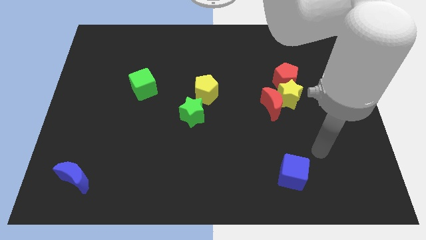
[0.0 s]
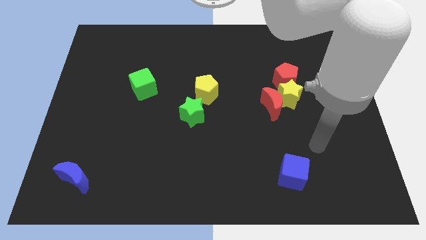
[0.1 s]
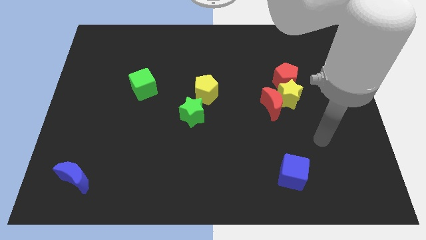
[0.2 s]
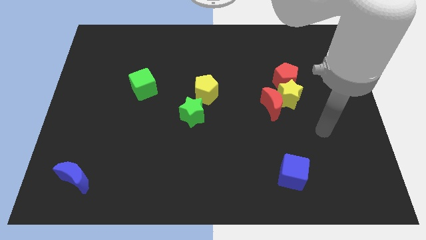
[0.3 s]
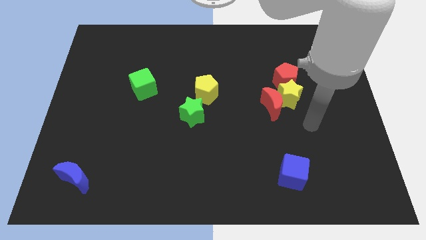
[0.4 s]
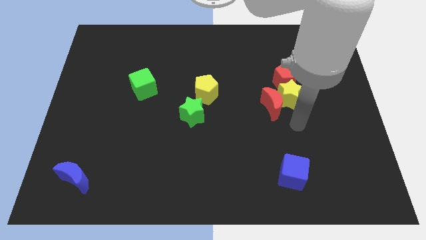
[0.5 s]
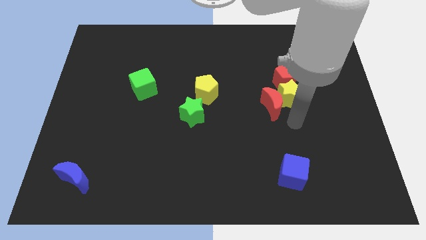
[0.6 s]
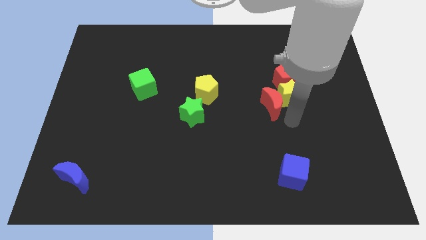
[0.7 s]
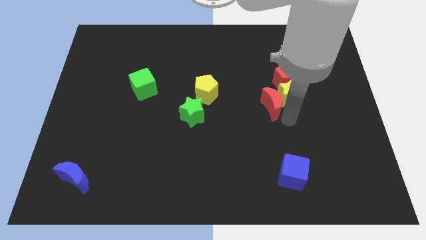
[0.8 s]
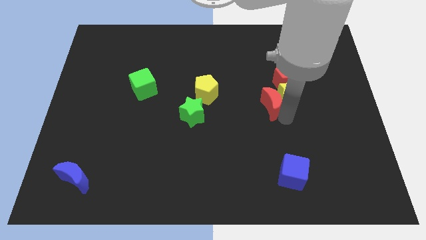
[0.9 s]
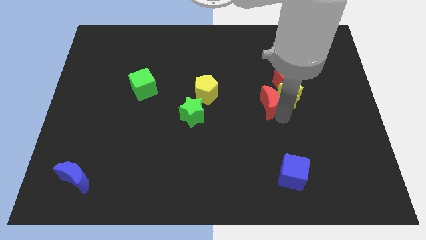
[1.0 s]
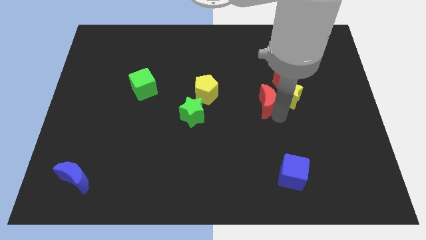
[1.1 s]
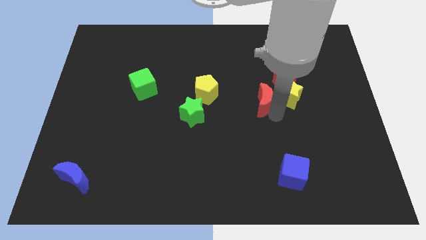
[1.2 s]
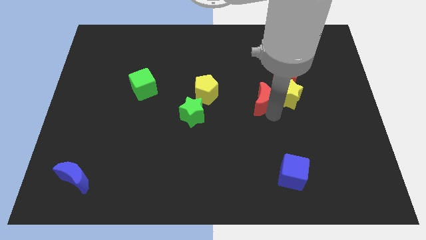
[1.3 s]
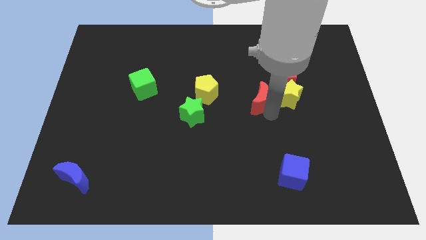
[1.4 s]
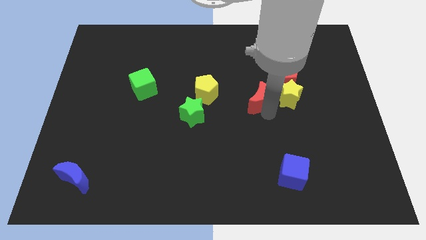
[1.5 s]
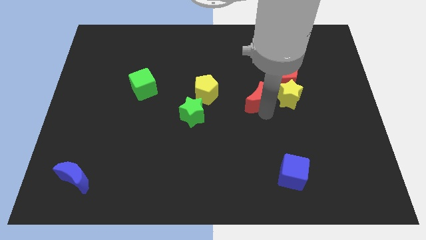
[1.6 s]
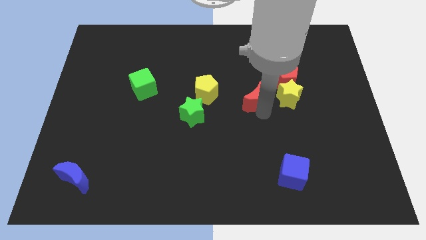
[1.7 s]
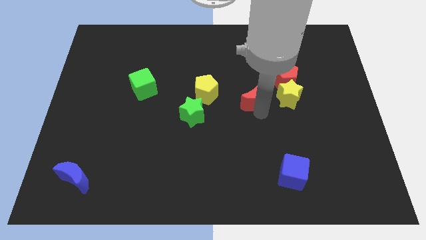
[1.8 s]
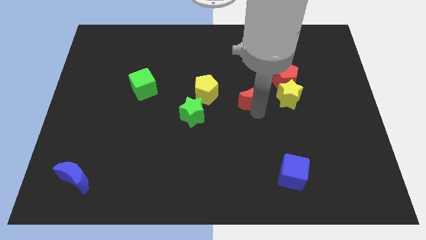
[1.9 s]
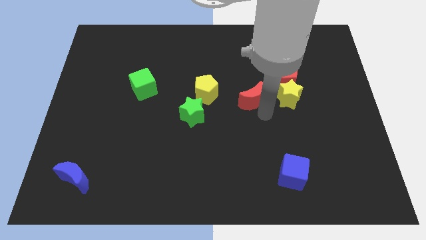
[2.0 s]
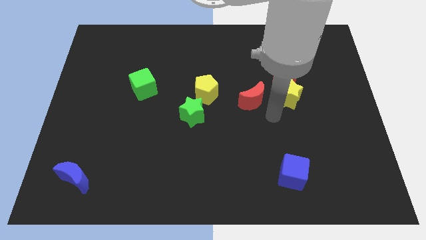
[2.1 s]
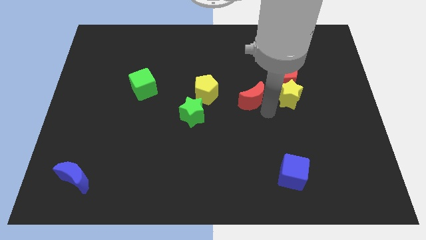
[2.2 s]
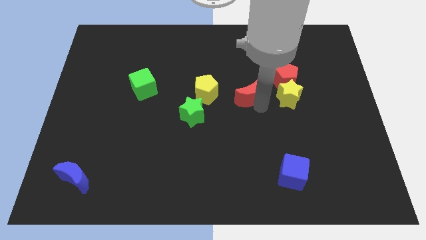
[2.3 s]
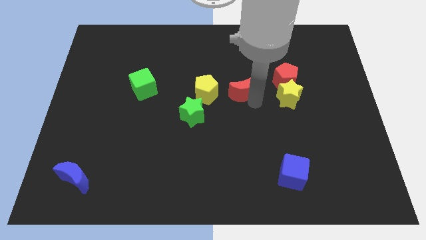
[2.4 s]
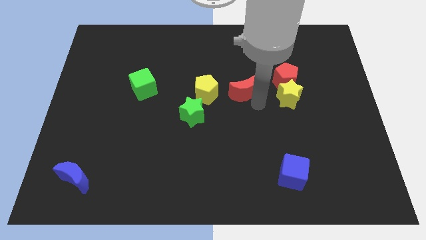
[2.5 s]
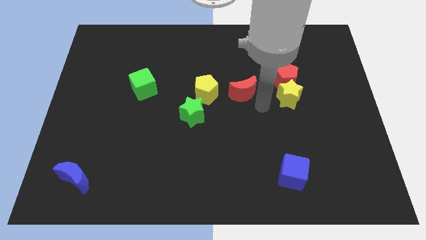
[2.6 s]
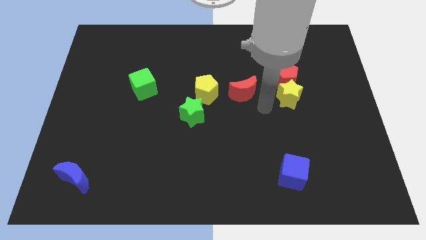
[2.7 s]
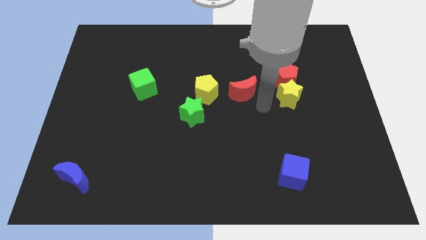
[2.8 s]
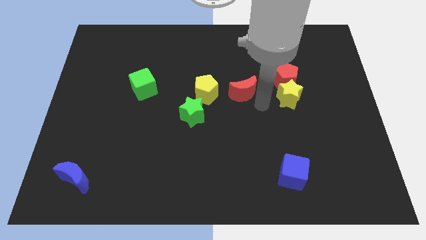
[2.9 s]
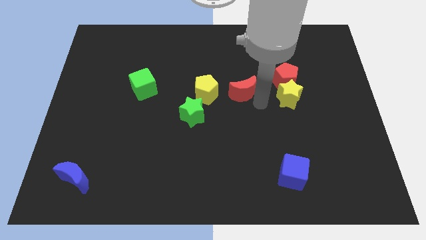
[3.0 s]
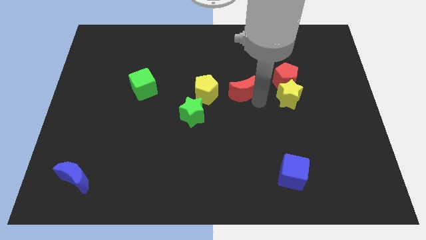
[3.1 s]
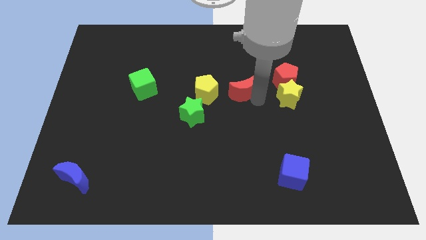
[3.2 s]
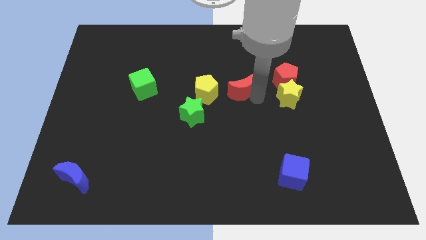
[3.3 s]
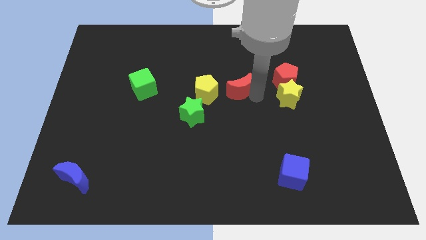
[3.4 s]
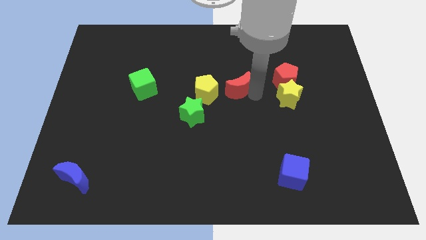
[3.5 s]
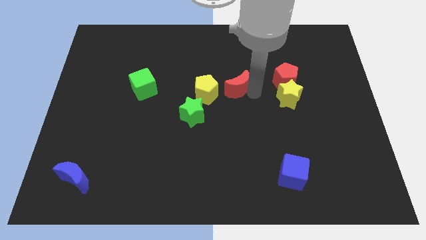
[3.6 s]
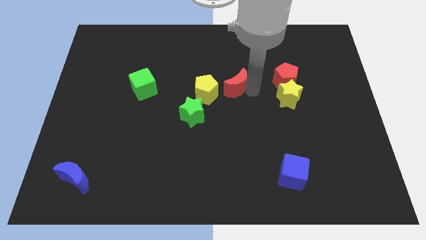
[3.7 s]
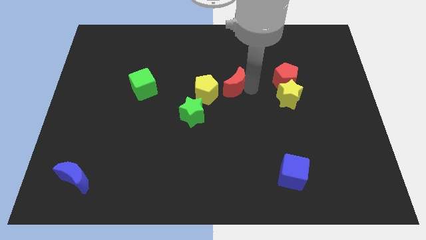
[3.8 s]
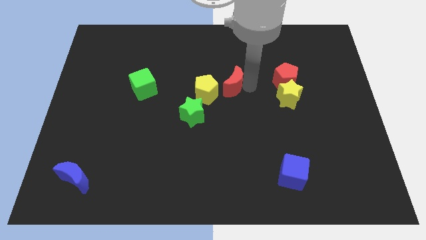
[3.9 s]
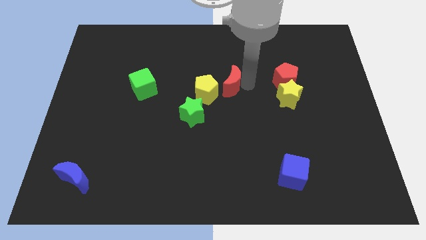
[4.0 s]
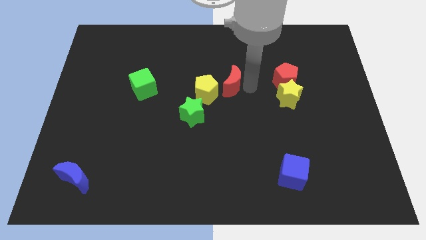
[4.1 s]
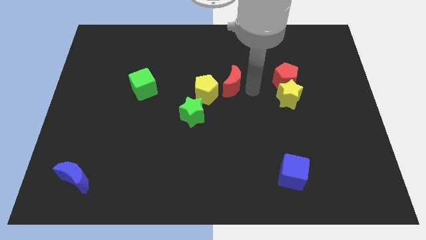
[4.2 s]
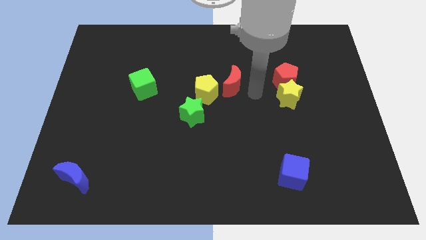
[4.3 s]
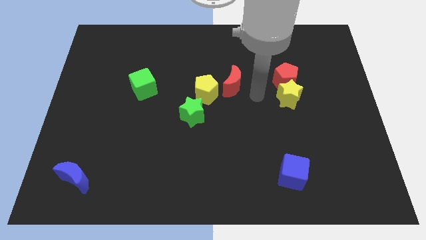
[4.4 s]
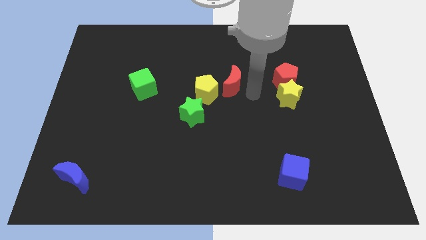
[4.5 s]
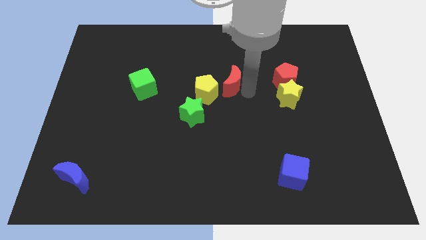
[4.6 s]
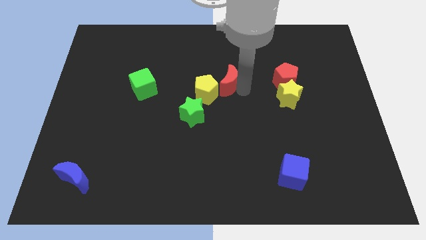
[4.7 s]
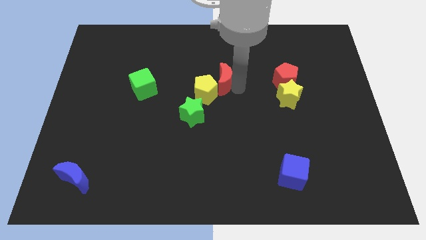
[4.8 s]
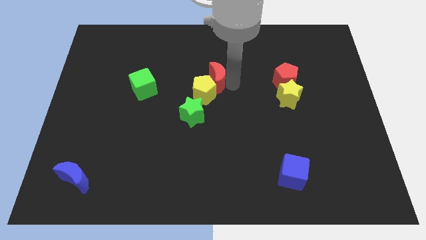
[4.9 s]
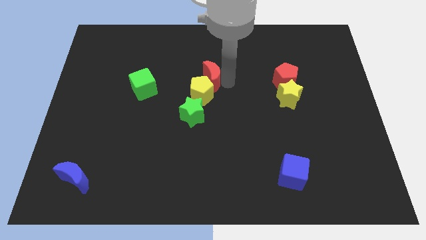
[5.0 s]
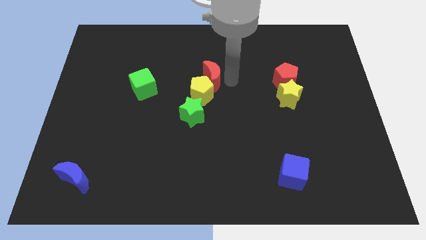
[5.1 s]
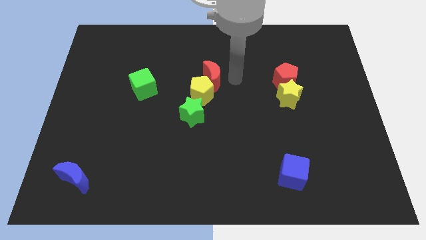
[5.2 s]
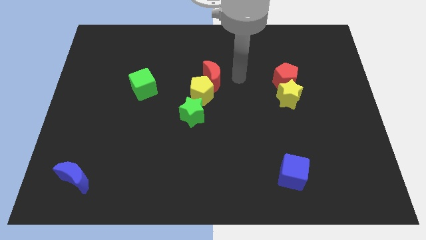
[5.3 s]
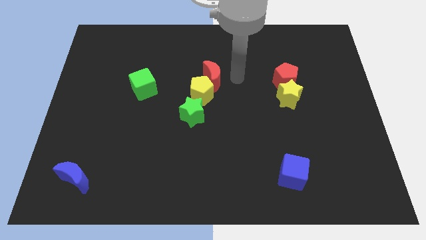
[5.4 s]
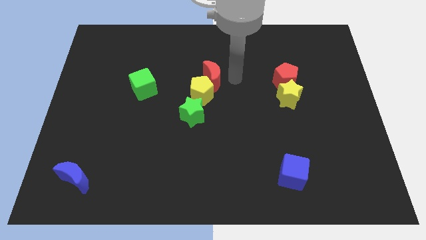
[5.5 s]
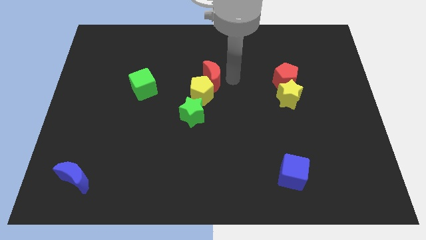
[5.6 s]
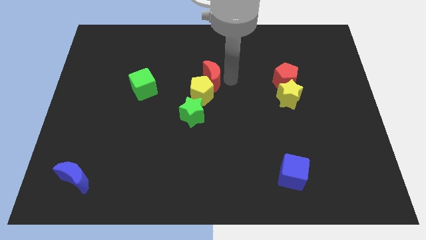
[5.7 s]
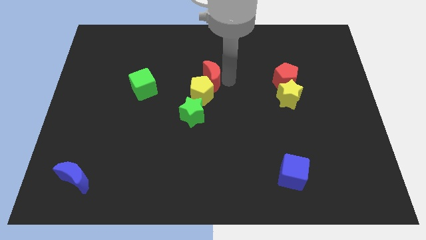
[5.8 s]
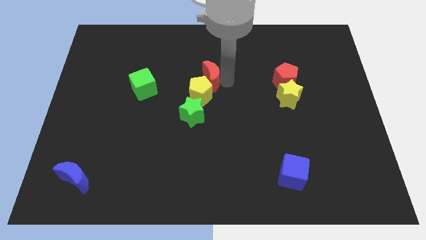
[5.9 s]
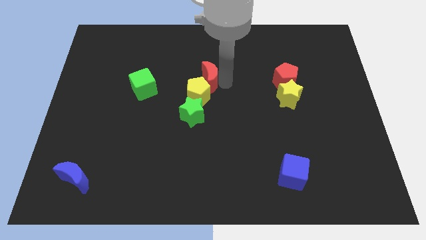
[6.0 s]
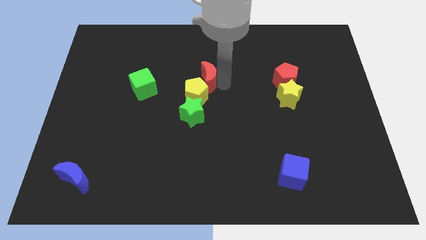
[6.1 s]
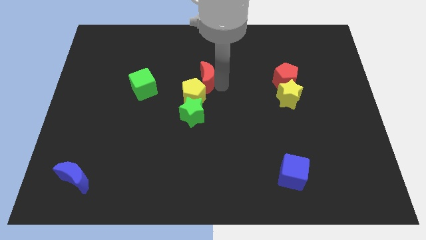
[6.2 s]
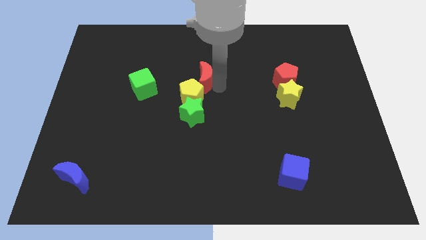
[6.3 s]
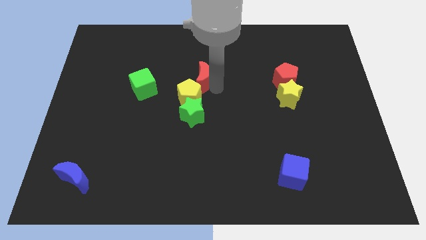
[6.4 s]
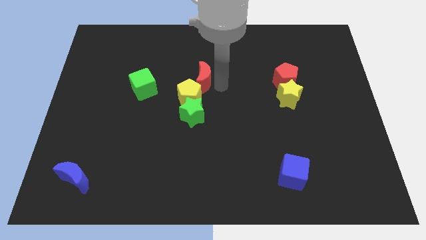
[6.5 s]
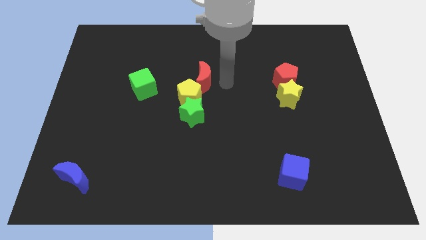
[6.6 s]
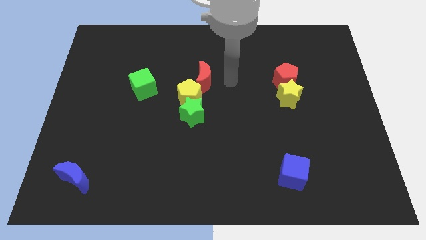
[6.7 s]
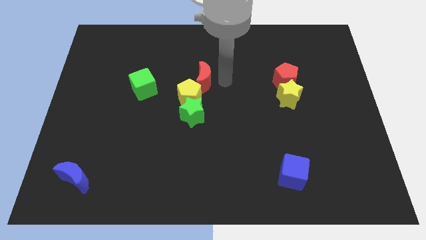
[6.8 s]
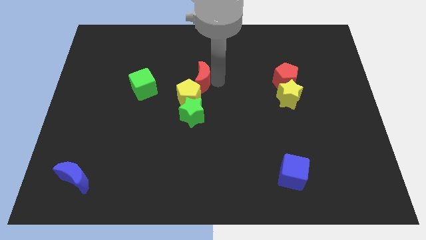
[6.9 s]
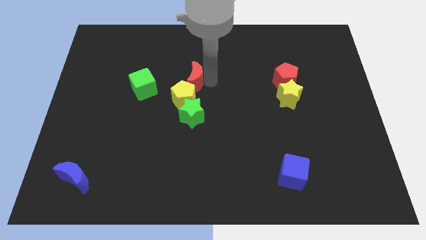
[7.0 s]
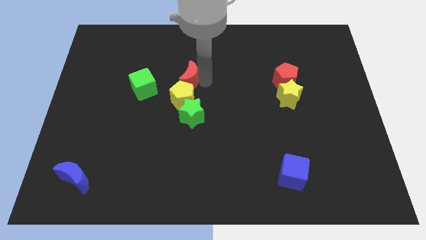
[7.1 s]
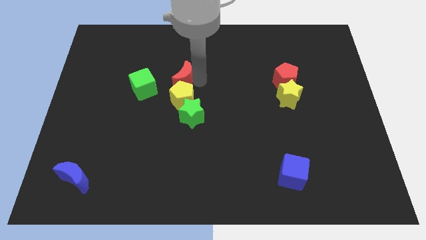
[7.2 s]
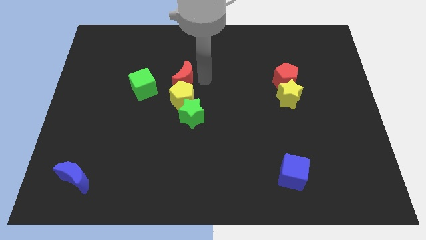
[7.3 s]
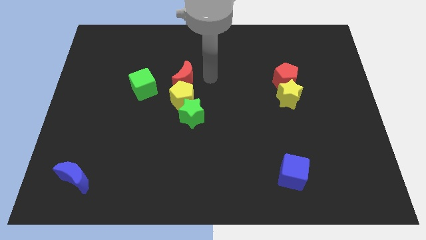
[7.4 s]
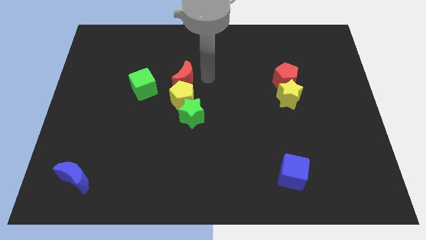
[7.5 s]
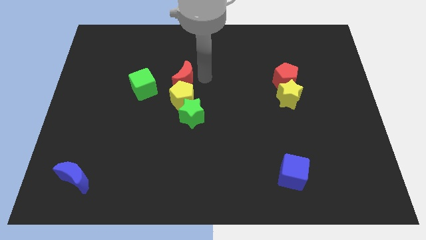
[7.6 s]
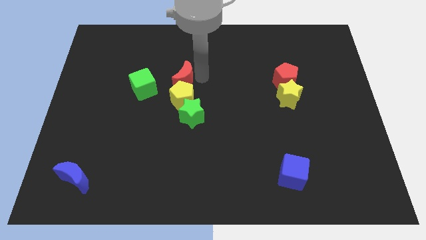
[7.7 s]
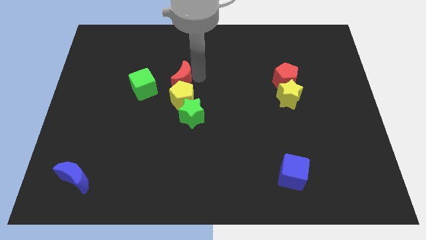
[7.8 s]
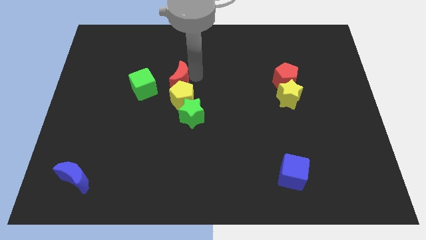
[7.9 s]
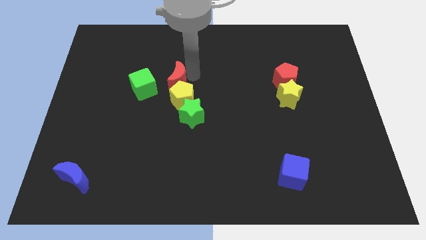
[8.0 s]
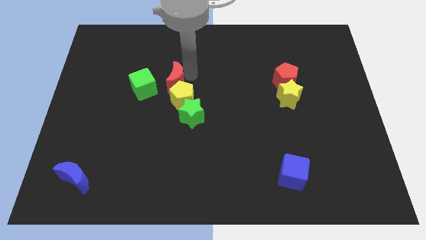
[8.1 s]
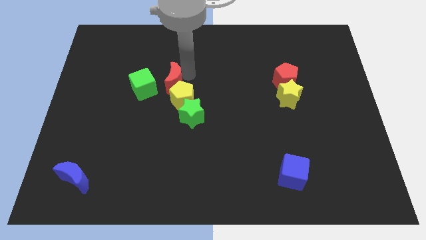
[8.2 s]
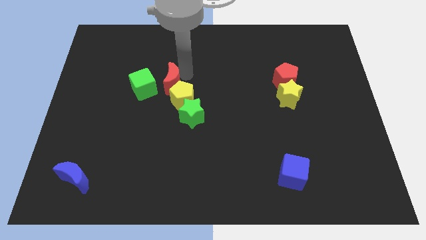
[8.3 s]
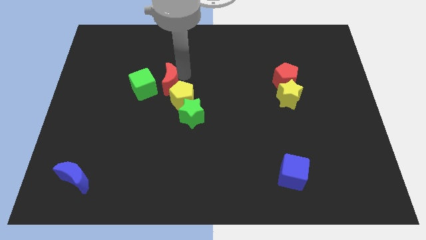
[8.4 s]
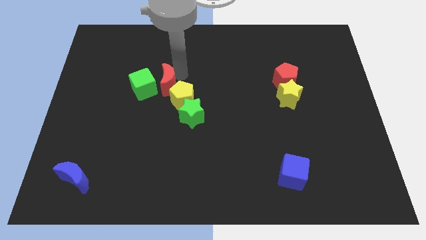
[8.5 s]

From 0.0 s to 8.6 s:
move the red moon to the green cube

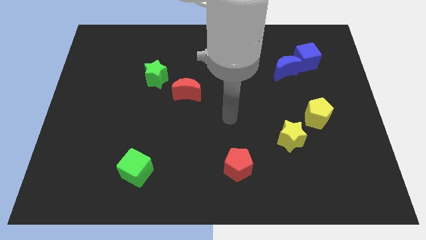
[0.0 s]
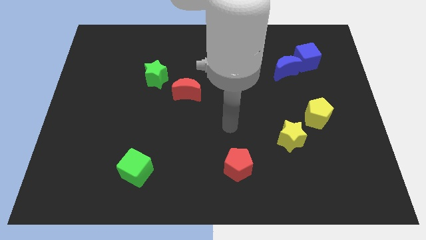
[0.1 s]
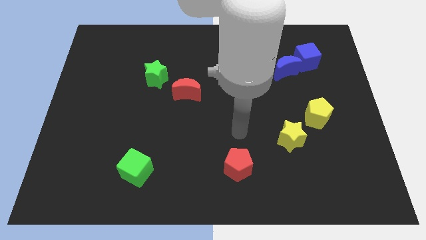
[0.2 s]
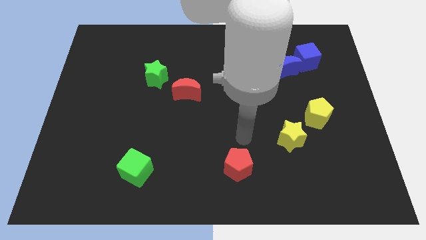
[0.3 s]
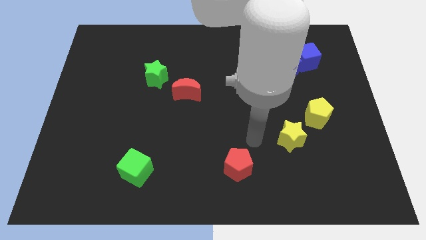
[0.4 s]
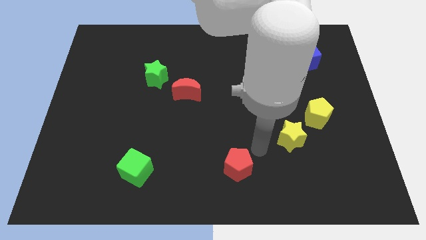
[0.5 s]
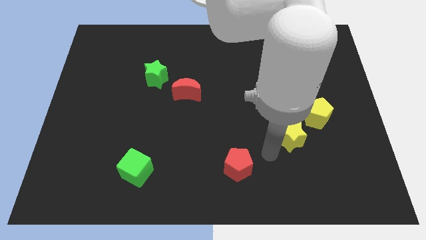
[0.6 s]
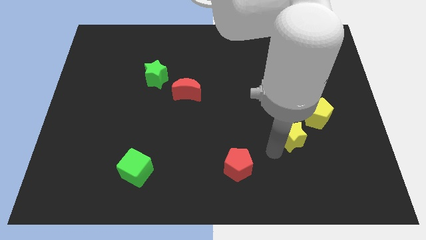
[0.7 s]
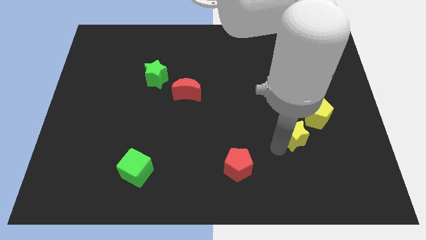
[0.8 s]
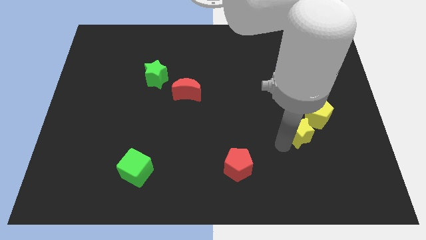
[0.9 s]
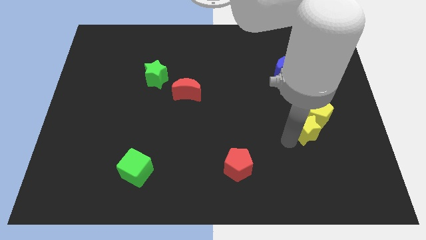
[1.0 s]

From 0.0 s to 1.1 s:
put the yellow star towards the yellow pentagon
